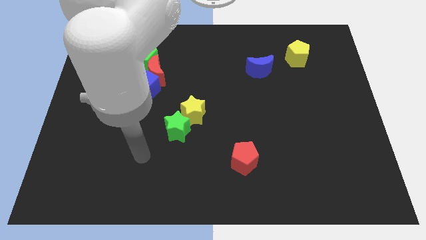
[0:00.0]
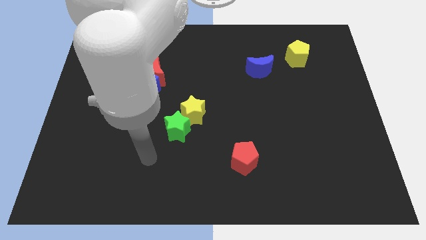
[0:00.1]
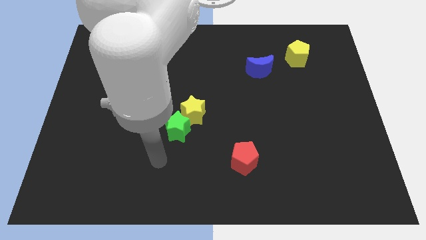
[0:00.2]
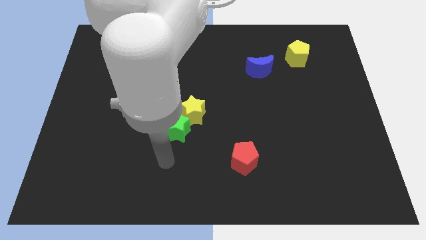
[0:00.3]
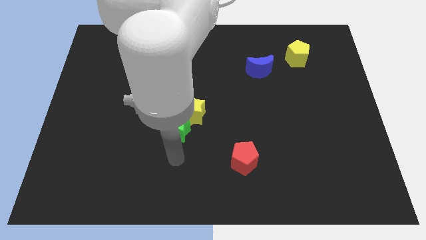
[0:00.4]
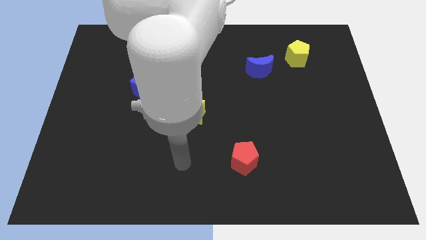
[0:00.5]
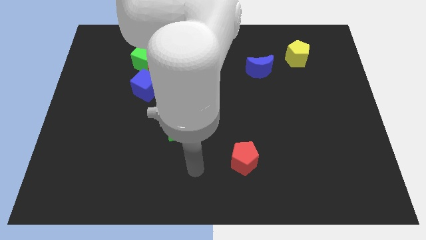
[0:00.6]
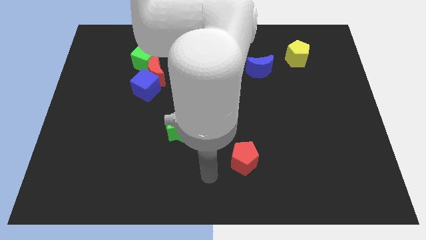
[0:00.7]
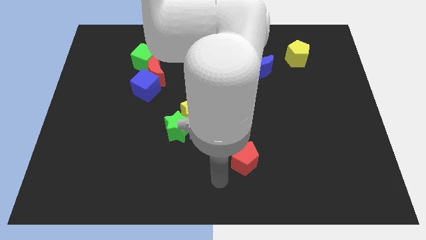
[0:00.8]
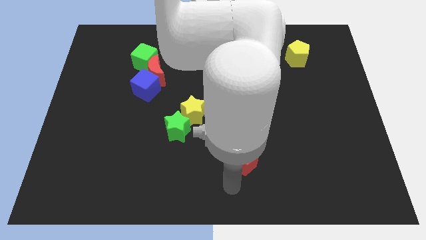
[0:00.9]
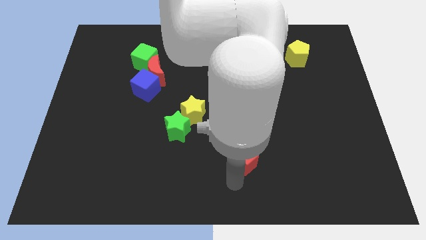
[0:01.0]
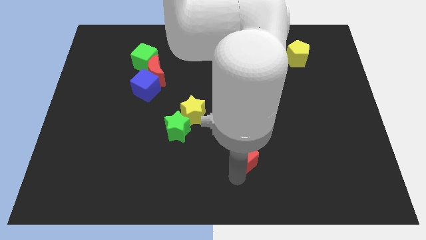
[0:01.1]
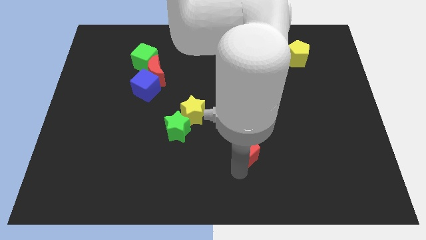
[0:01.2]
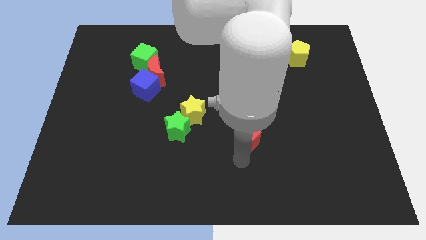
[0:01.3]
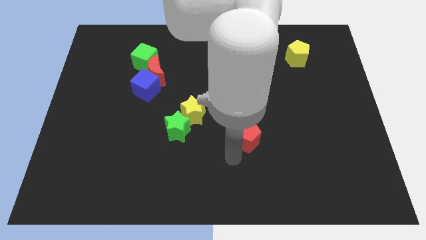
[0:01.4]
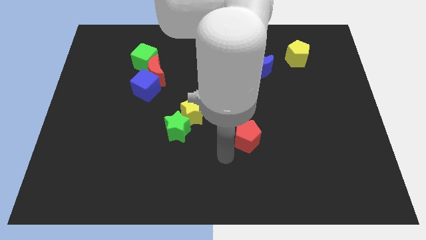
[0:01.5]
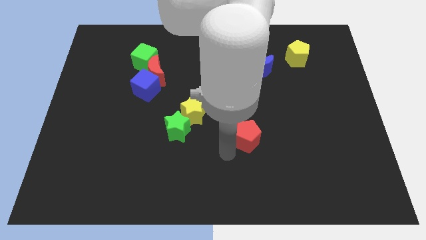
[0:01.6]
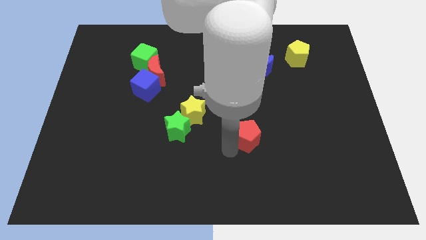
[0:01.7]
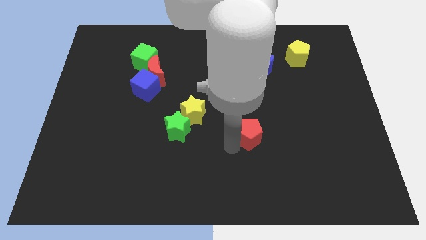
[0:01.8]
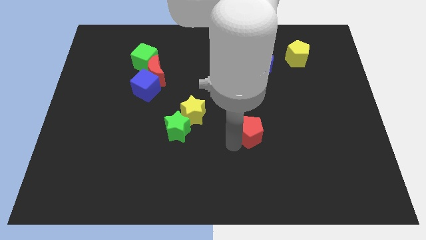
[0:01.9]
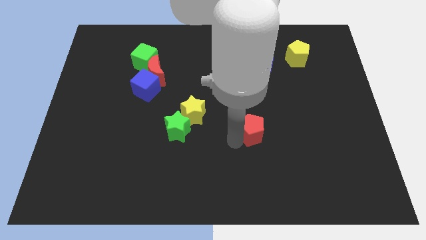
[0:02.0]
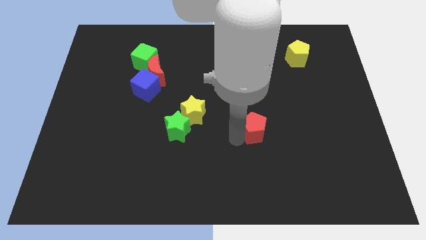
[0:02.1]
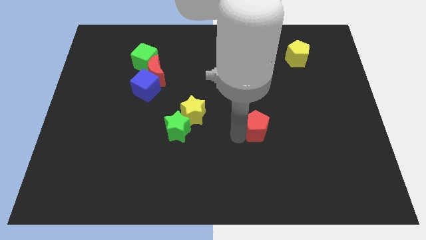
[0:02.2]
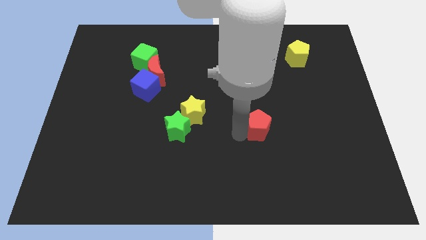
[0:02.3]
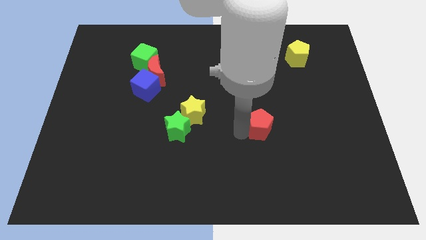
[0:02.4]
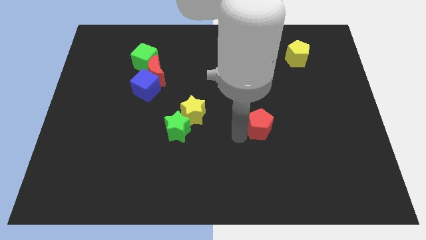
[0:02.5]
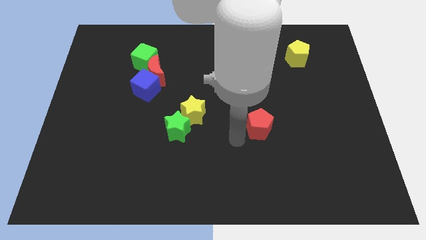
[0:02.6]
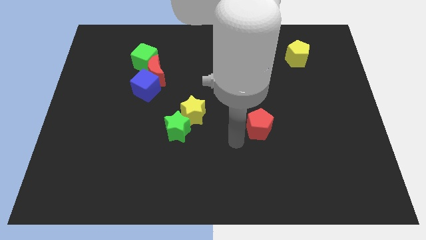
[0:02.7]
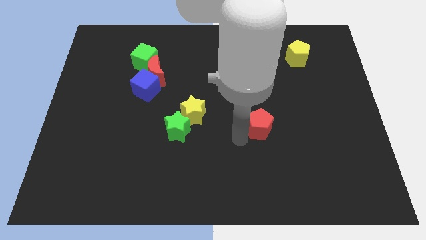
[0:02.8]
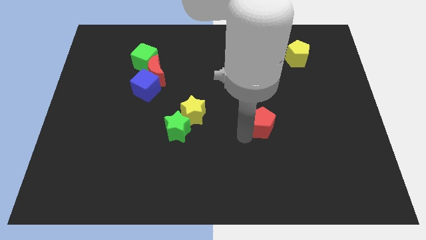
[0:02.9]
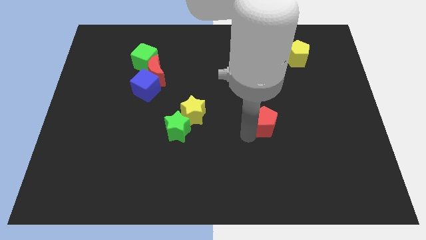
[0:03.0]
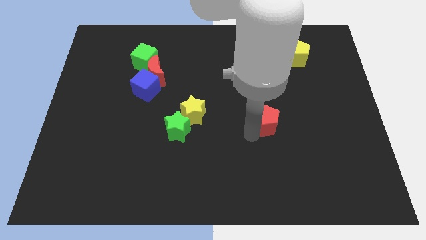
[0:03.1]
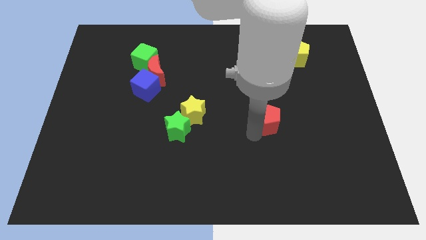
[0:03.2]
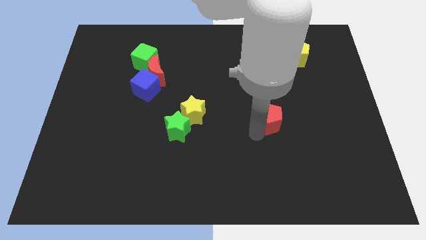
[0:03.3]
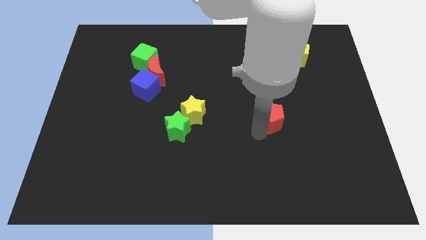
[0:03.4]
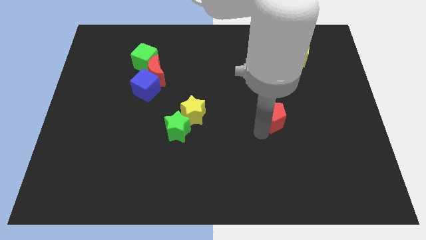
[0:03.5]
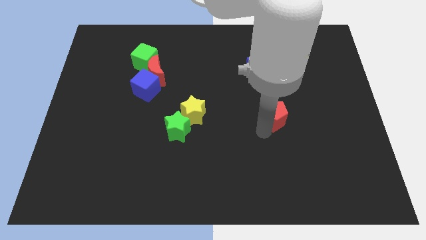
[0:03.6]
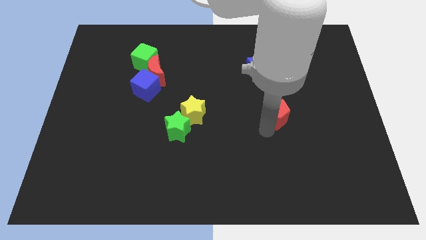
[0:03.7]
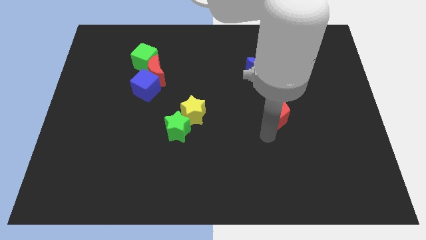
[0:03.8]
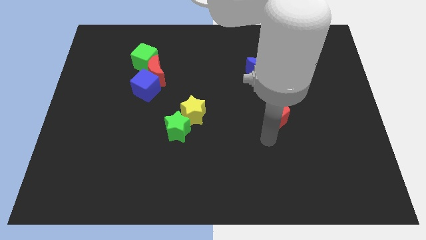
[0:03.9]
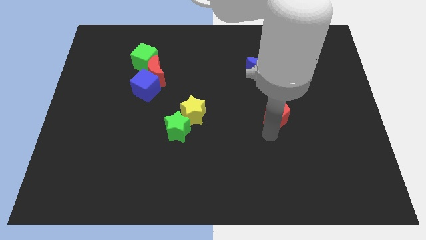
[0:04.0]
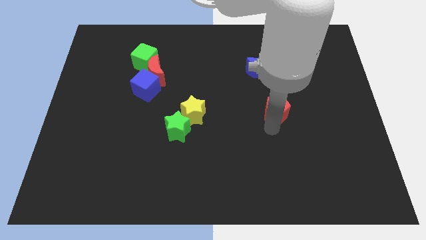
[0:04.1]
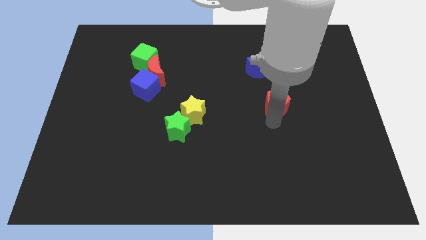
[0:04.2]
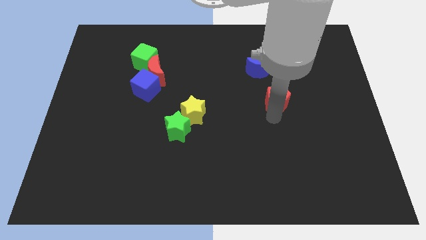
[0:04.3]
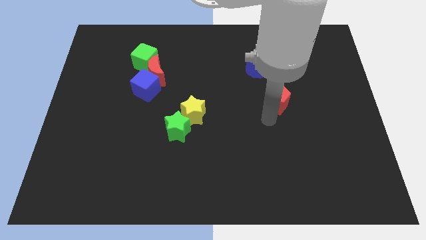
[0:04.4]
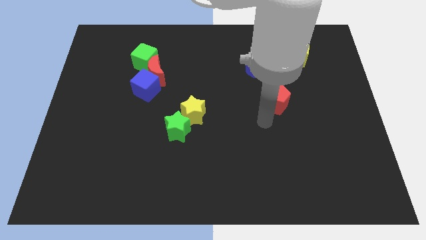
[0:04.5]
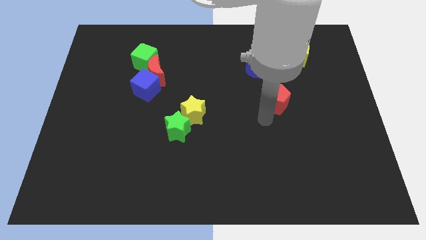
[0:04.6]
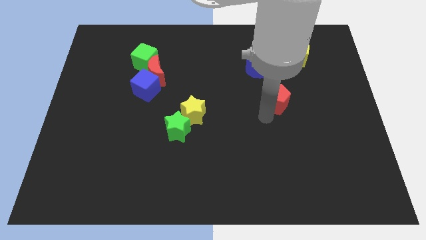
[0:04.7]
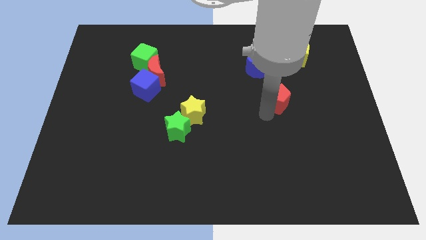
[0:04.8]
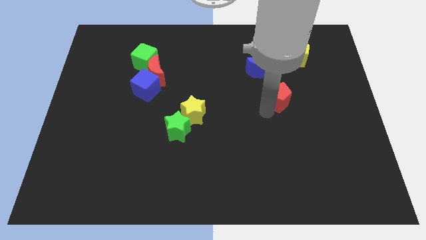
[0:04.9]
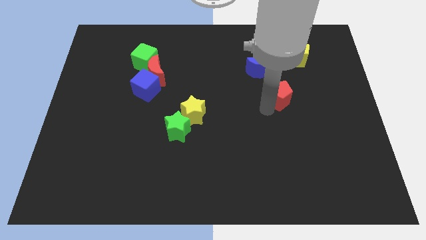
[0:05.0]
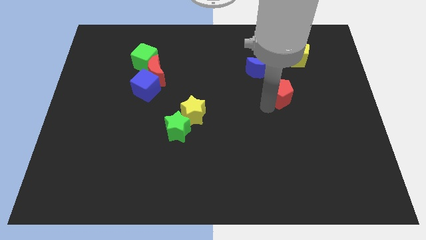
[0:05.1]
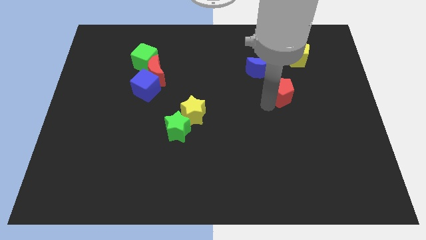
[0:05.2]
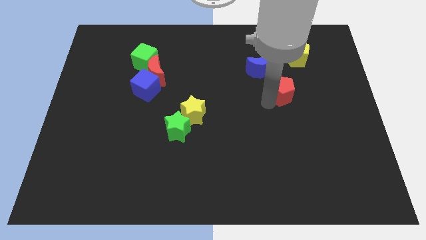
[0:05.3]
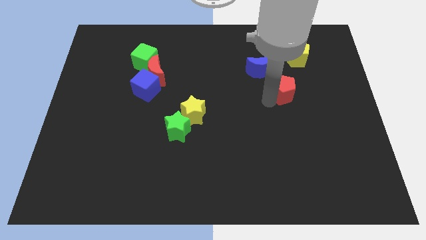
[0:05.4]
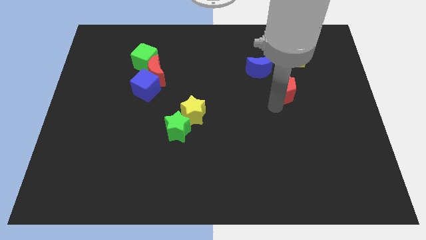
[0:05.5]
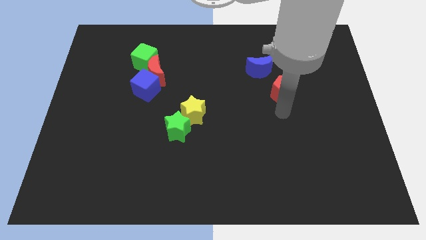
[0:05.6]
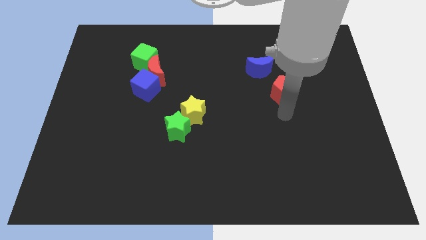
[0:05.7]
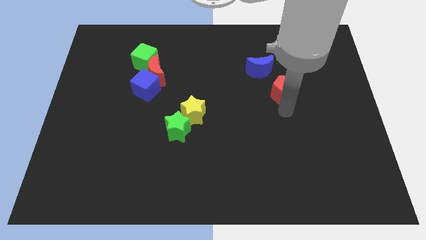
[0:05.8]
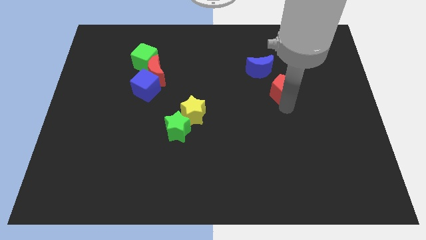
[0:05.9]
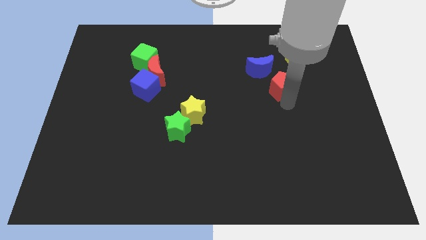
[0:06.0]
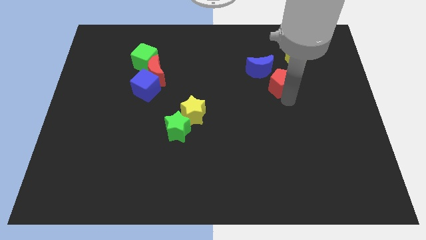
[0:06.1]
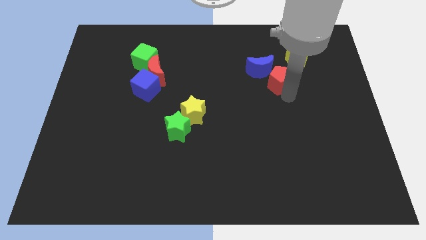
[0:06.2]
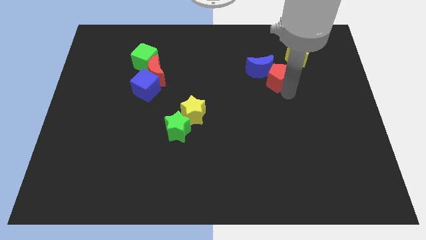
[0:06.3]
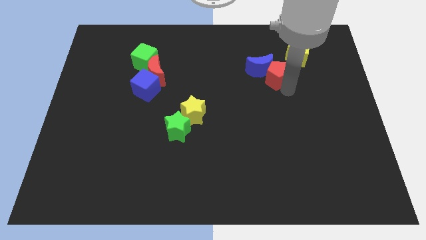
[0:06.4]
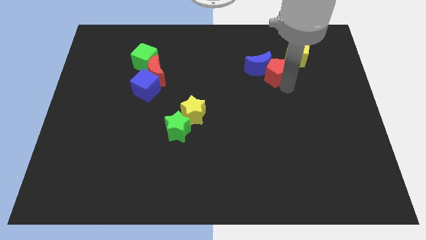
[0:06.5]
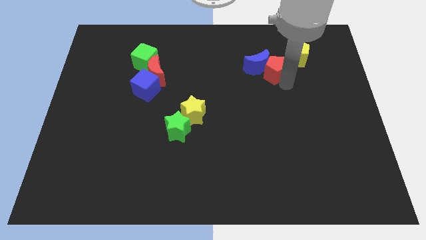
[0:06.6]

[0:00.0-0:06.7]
put the red pentagon to the top right side of the blue moon
